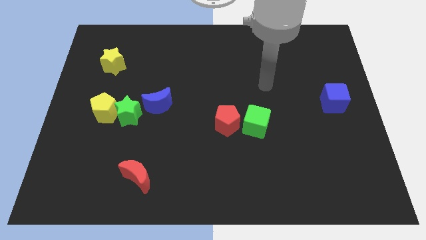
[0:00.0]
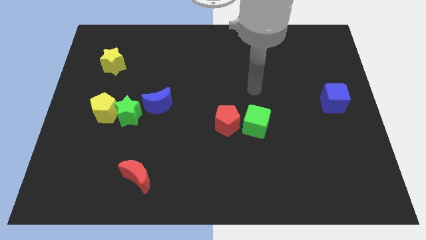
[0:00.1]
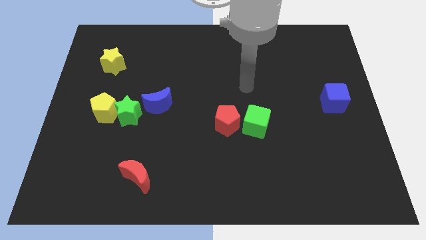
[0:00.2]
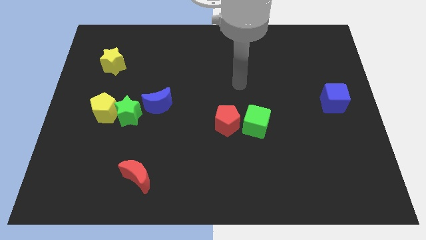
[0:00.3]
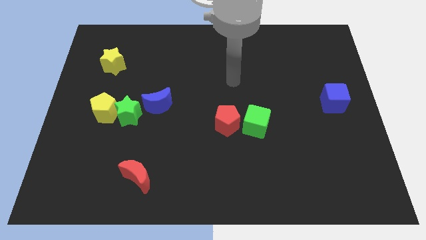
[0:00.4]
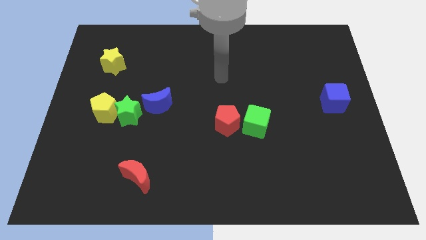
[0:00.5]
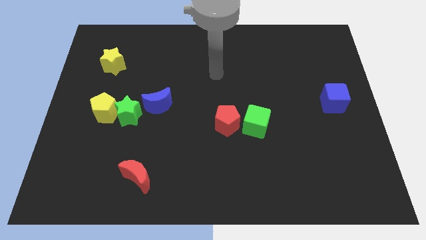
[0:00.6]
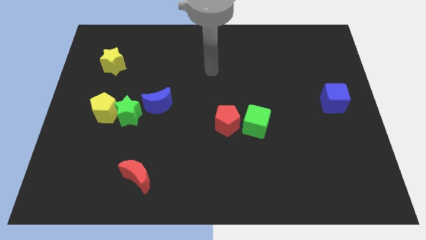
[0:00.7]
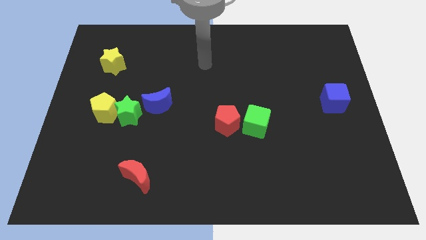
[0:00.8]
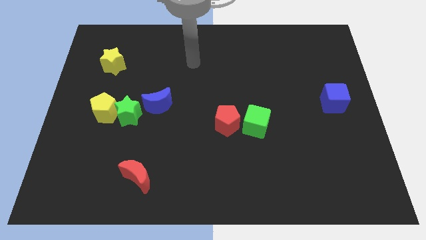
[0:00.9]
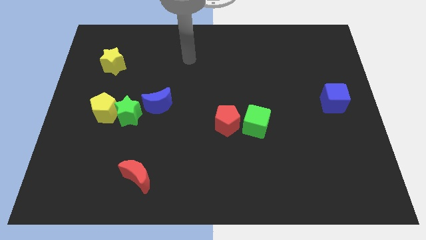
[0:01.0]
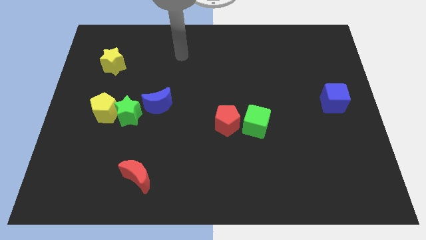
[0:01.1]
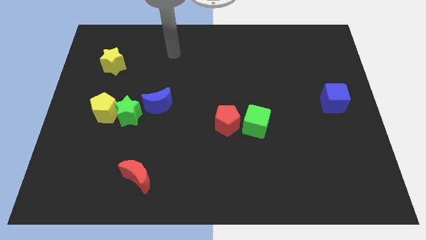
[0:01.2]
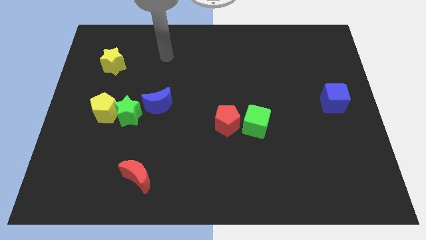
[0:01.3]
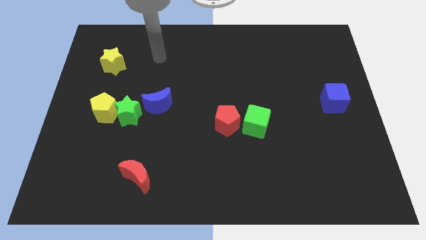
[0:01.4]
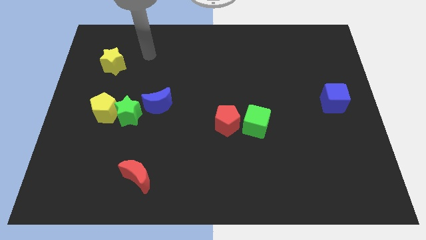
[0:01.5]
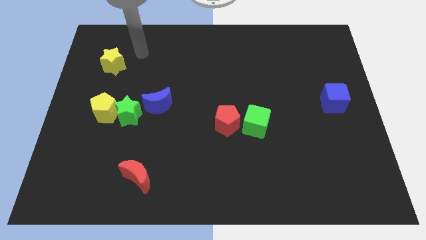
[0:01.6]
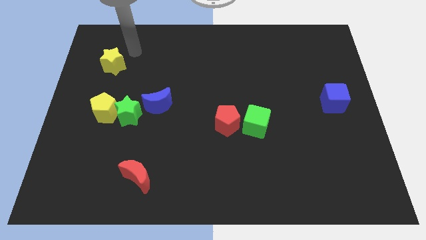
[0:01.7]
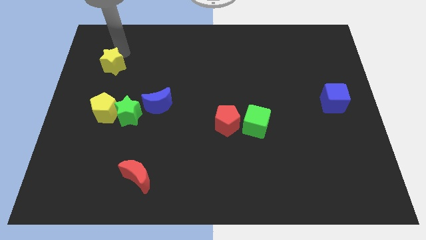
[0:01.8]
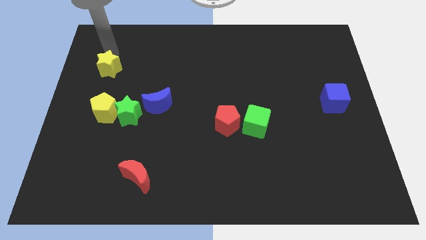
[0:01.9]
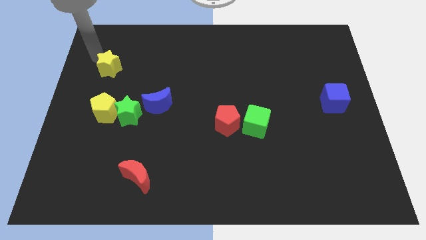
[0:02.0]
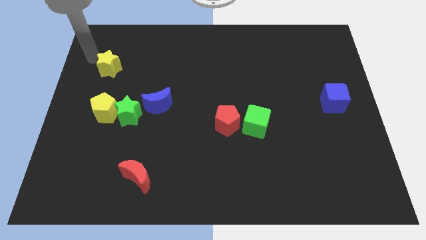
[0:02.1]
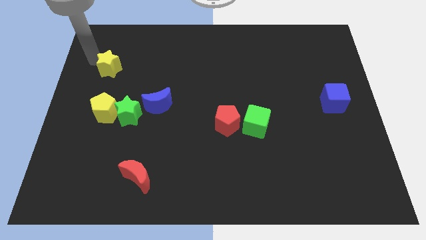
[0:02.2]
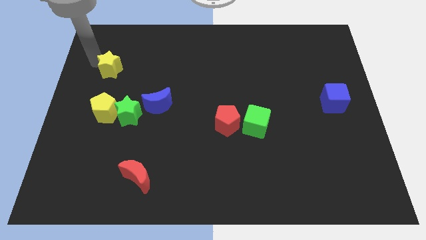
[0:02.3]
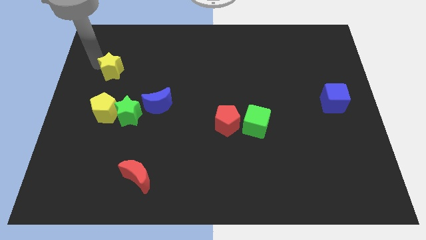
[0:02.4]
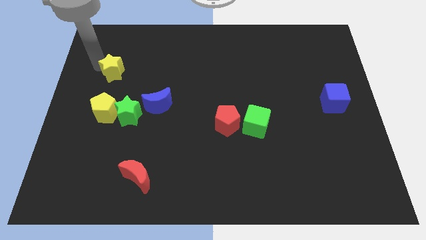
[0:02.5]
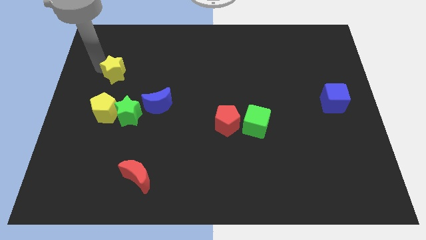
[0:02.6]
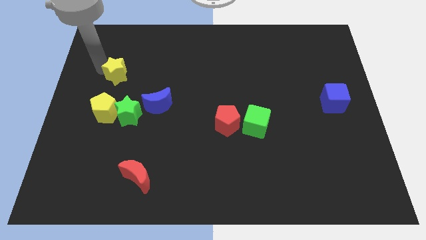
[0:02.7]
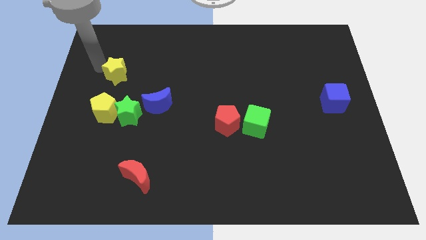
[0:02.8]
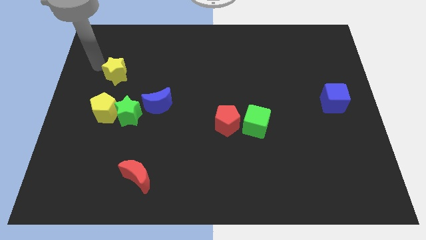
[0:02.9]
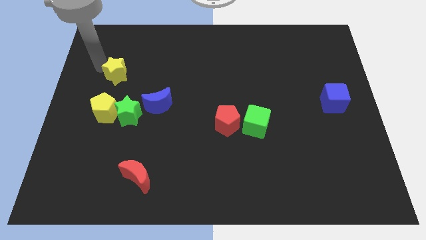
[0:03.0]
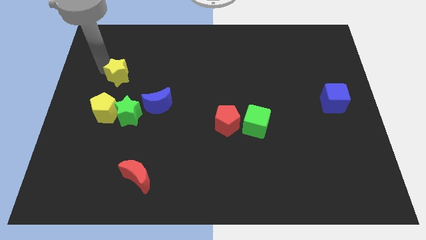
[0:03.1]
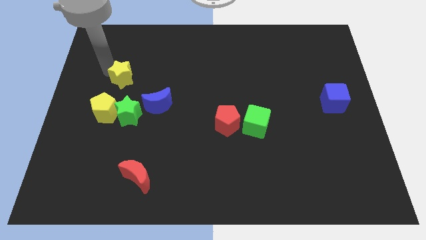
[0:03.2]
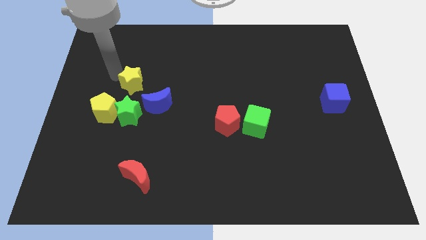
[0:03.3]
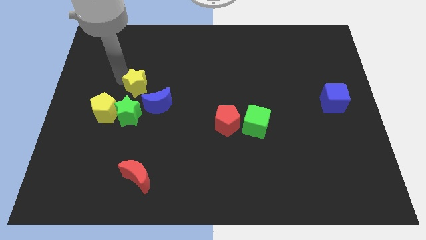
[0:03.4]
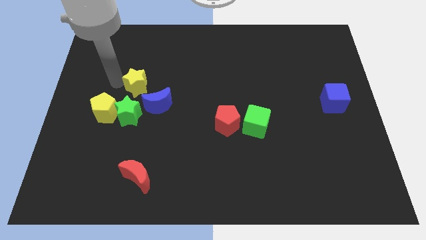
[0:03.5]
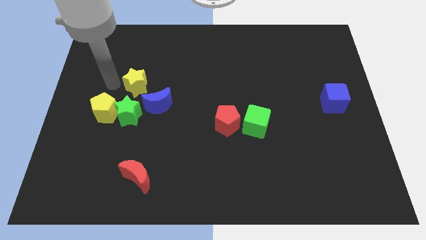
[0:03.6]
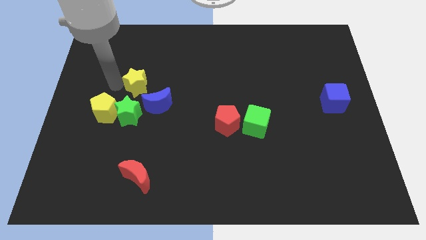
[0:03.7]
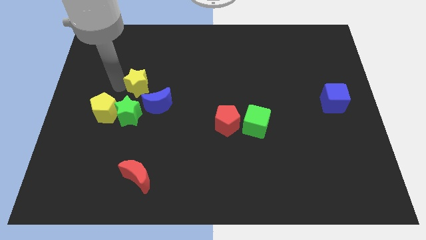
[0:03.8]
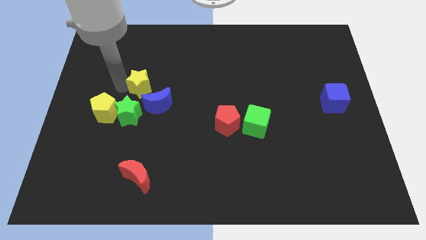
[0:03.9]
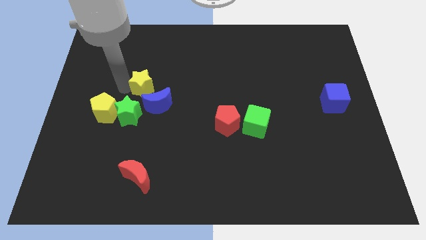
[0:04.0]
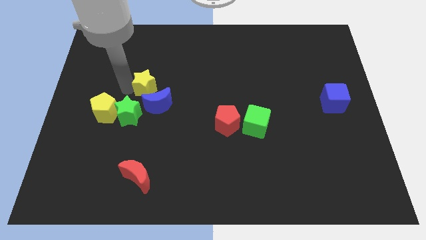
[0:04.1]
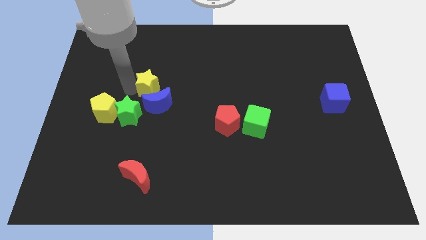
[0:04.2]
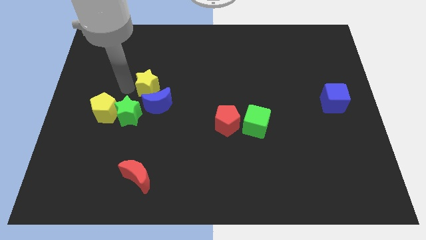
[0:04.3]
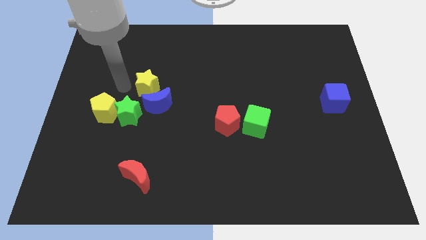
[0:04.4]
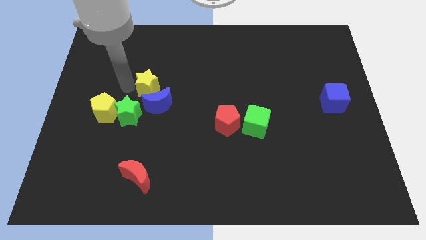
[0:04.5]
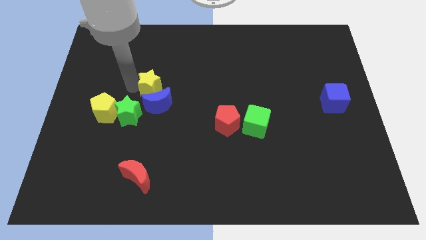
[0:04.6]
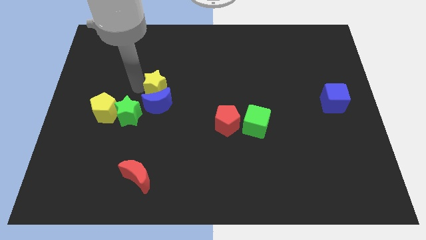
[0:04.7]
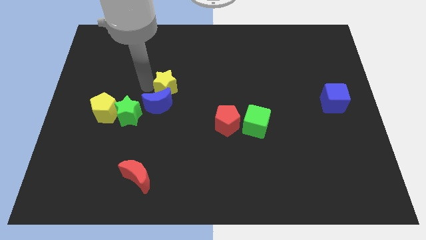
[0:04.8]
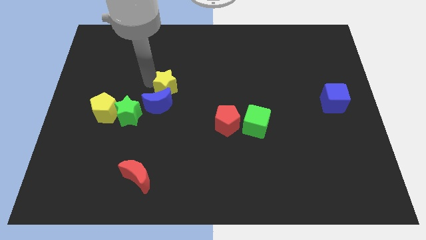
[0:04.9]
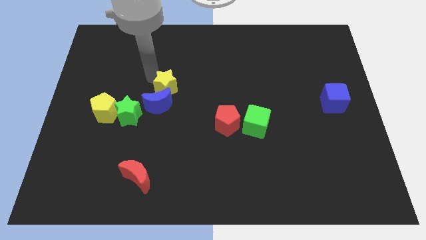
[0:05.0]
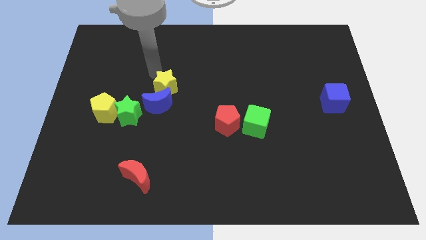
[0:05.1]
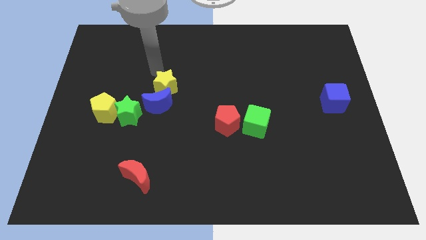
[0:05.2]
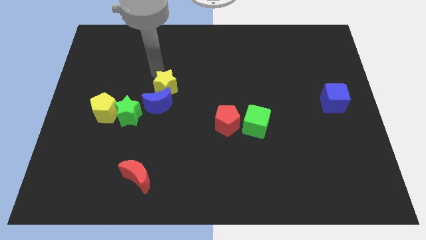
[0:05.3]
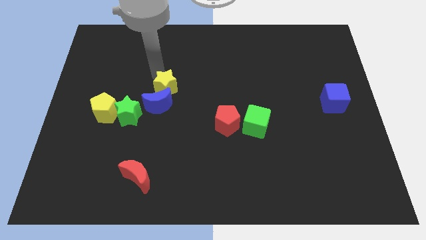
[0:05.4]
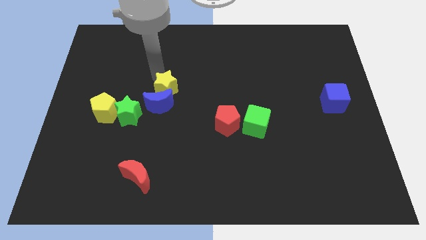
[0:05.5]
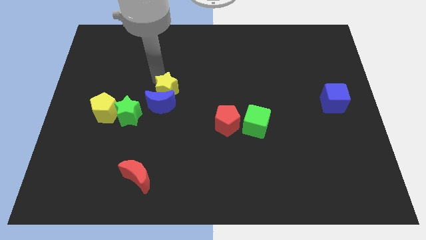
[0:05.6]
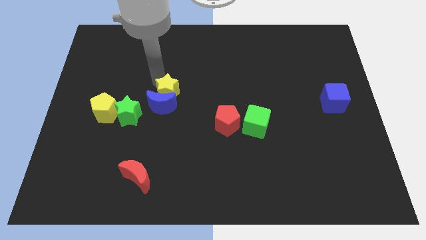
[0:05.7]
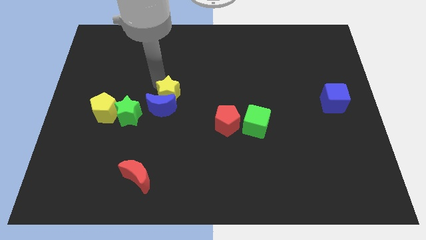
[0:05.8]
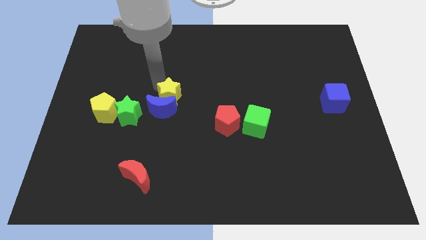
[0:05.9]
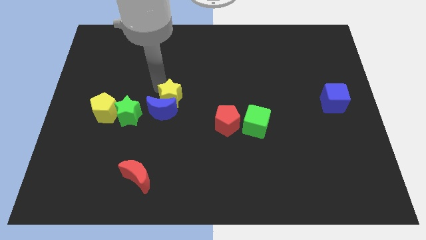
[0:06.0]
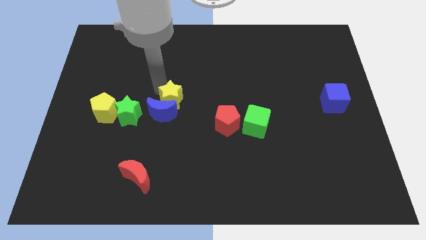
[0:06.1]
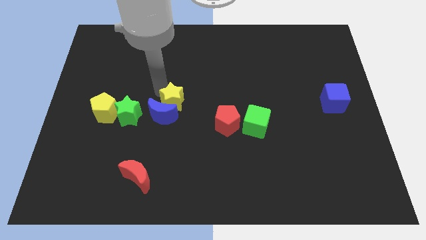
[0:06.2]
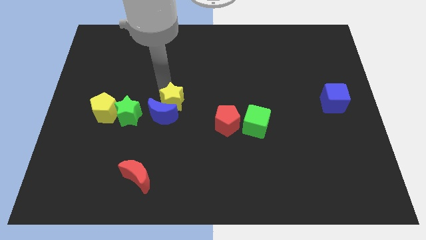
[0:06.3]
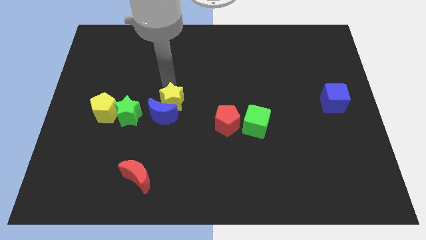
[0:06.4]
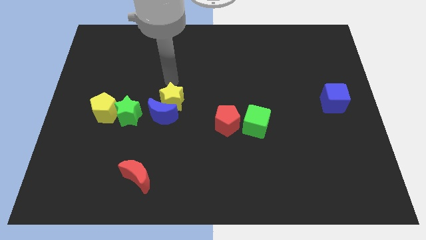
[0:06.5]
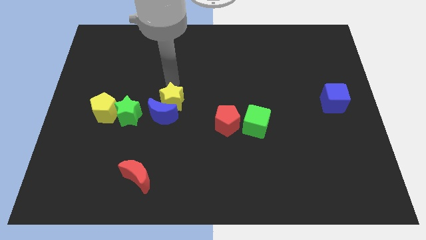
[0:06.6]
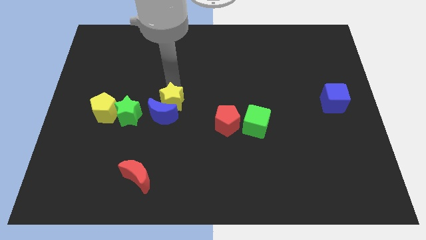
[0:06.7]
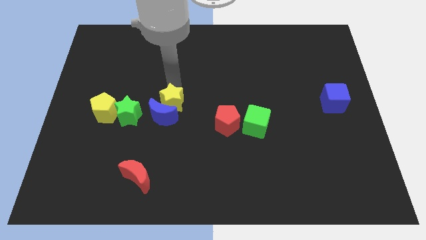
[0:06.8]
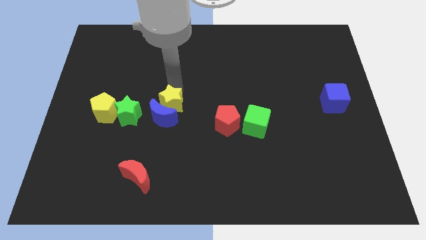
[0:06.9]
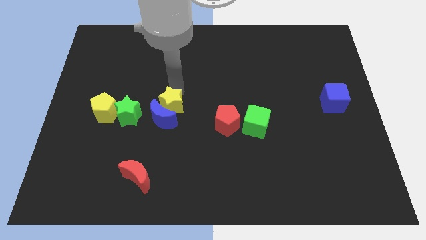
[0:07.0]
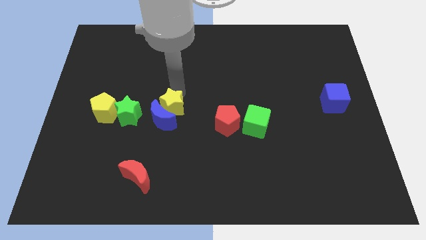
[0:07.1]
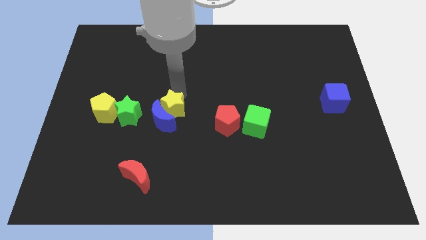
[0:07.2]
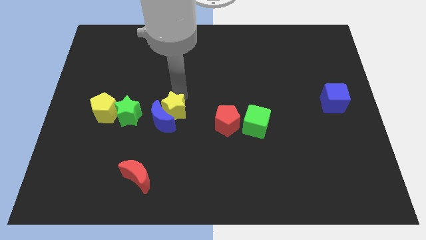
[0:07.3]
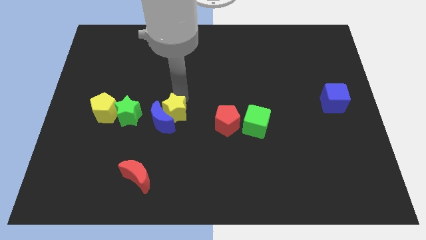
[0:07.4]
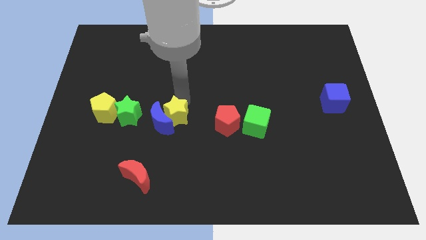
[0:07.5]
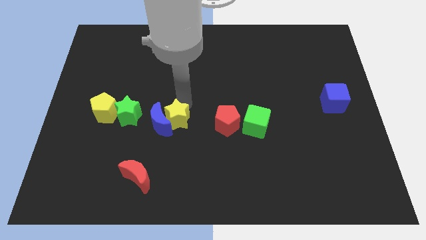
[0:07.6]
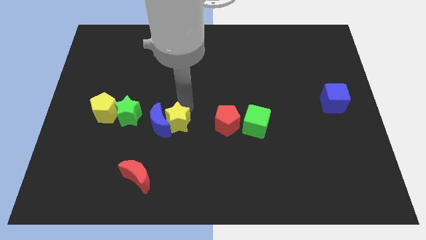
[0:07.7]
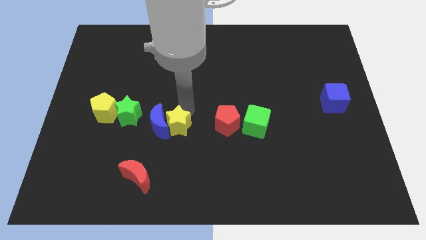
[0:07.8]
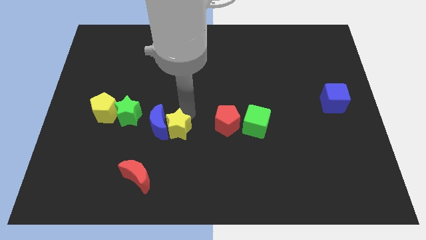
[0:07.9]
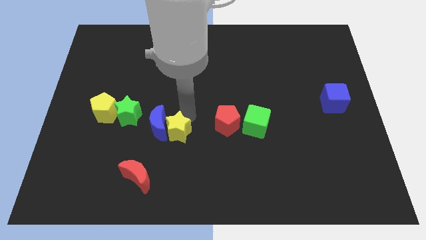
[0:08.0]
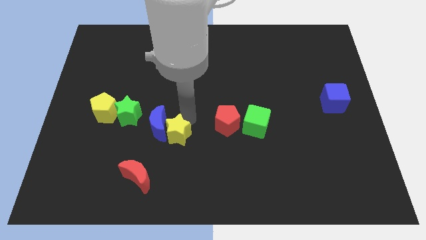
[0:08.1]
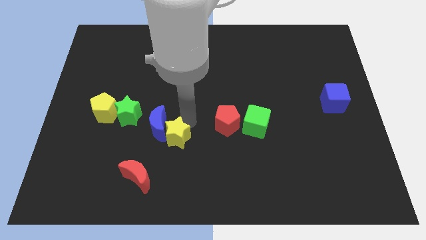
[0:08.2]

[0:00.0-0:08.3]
put the yellow star to the top right side of the red moon
